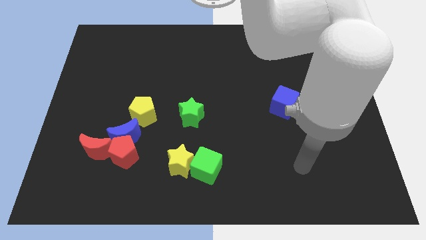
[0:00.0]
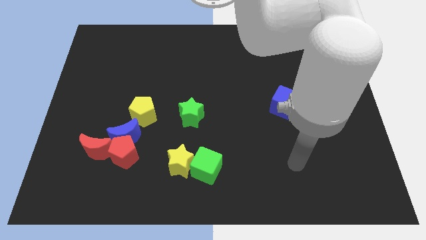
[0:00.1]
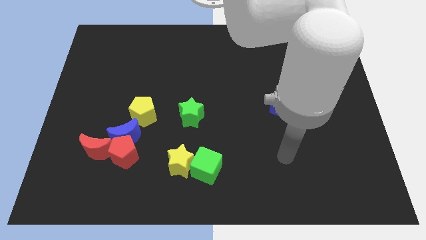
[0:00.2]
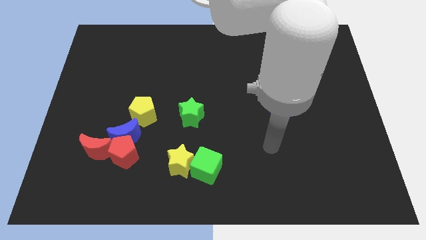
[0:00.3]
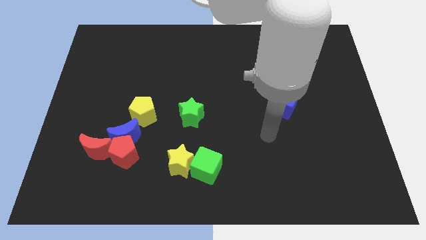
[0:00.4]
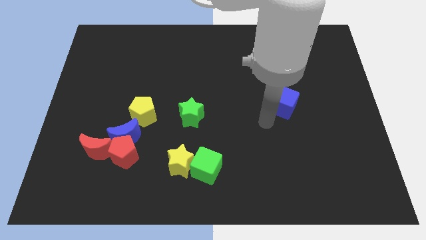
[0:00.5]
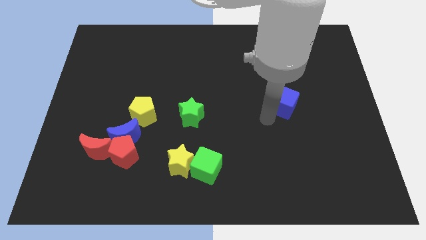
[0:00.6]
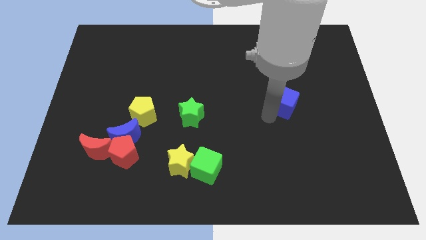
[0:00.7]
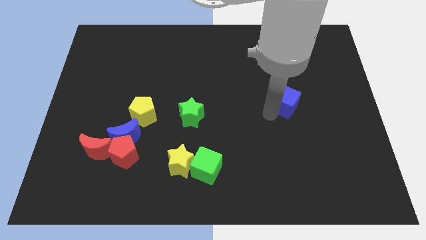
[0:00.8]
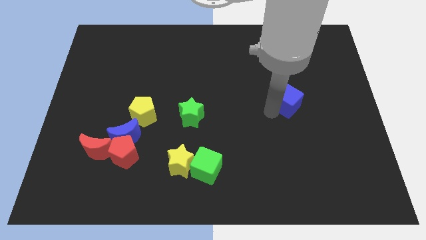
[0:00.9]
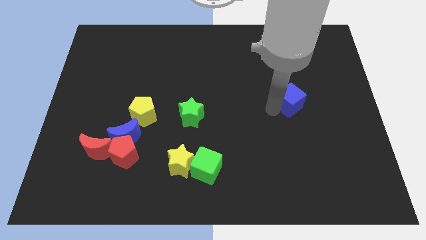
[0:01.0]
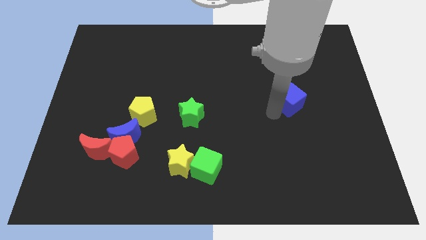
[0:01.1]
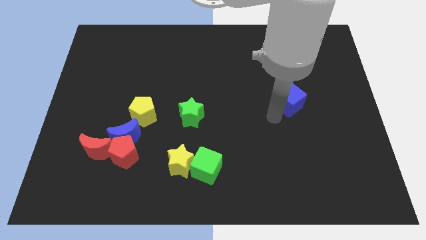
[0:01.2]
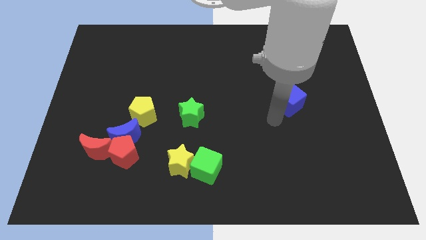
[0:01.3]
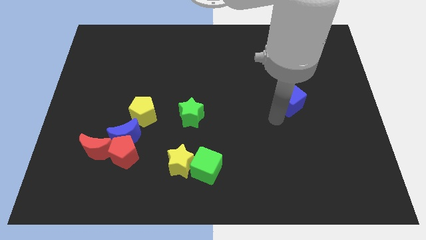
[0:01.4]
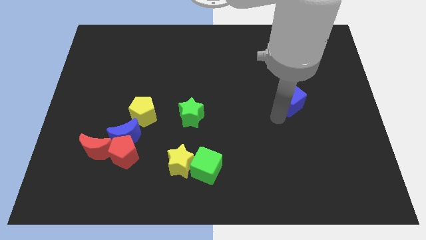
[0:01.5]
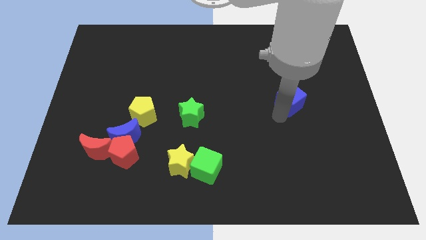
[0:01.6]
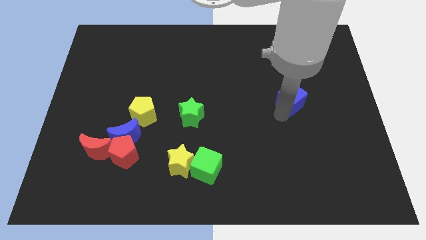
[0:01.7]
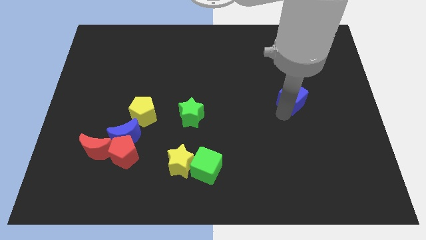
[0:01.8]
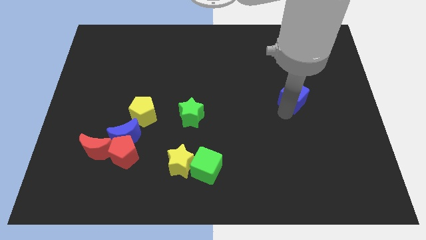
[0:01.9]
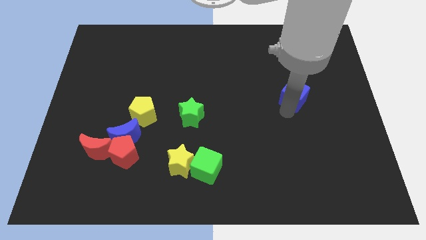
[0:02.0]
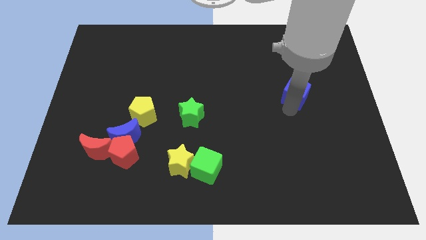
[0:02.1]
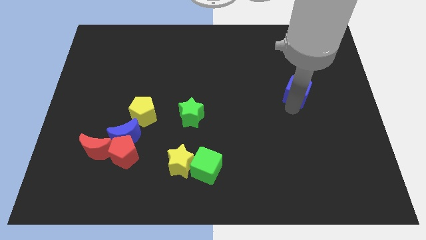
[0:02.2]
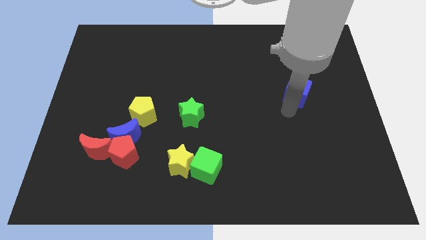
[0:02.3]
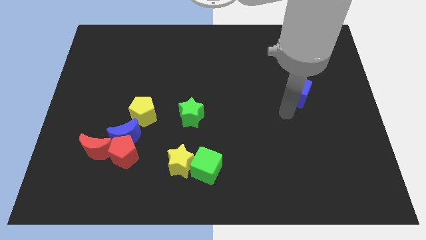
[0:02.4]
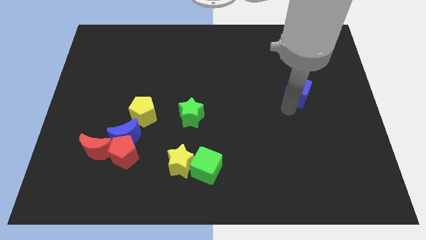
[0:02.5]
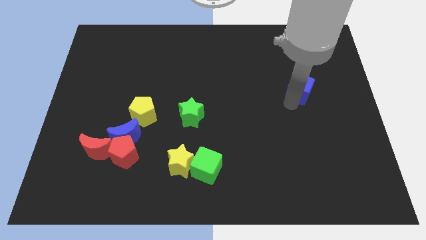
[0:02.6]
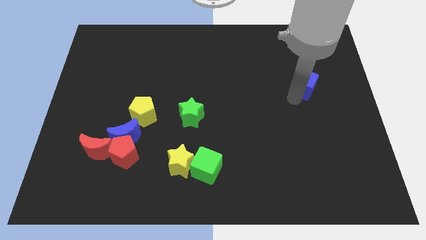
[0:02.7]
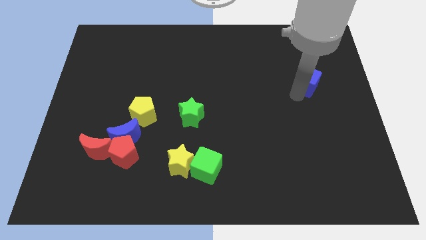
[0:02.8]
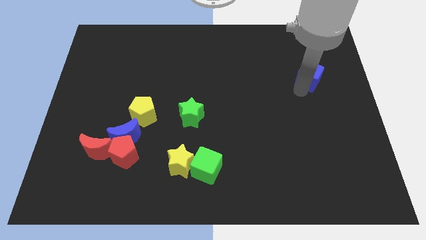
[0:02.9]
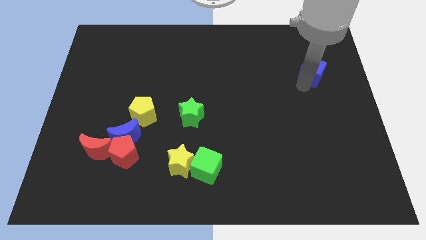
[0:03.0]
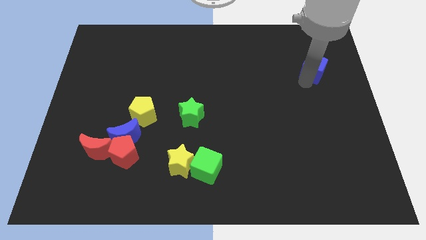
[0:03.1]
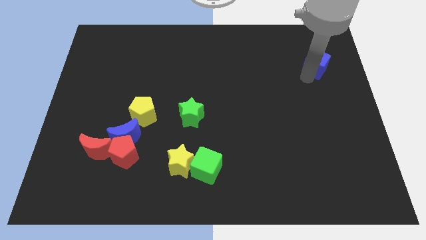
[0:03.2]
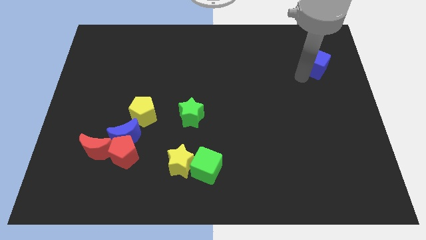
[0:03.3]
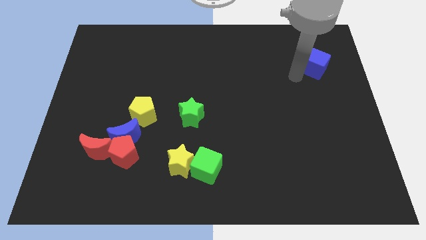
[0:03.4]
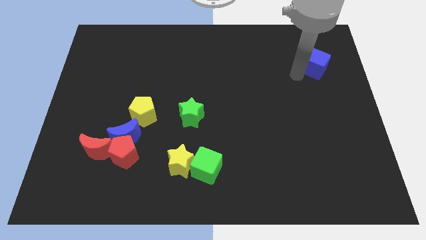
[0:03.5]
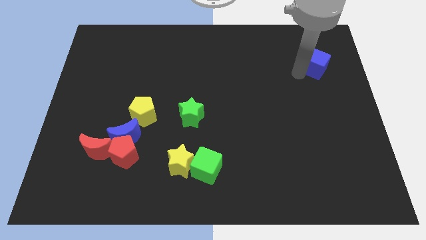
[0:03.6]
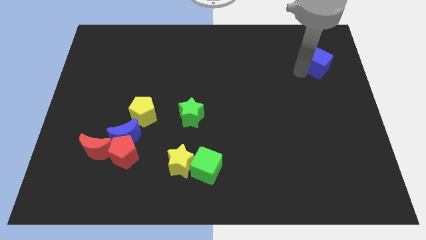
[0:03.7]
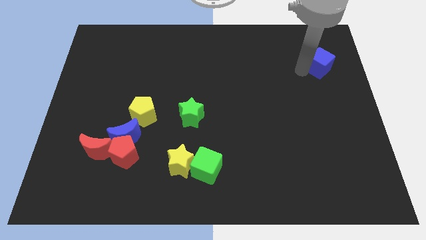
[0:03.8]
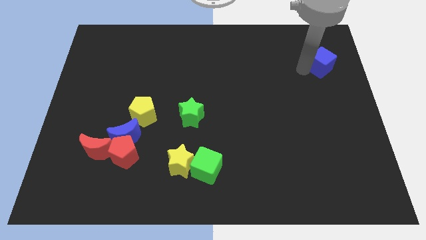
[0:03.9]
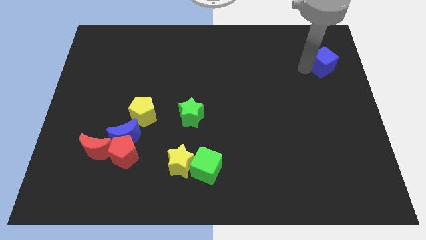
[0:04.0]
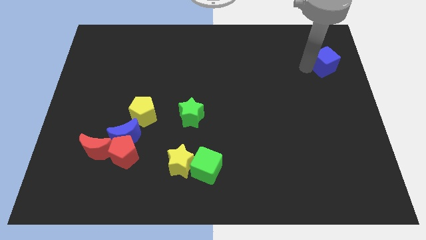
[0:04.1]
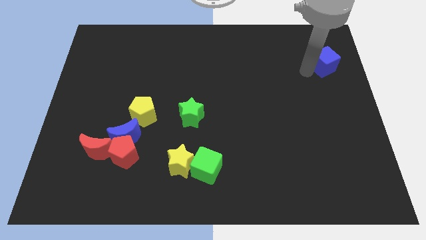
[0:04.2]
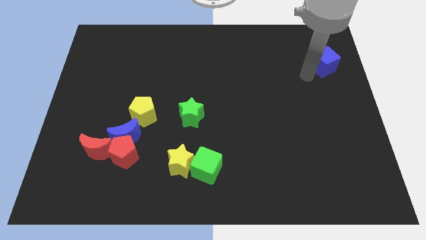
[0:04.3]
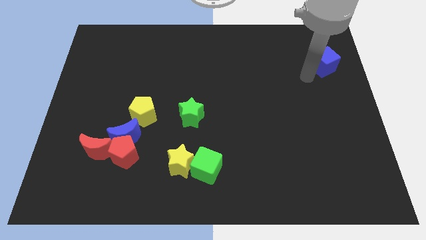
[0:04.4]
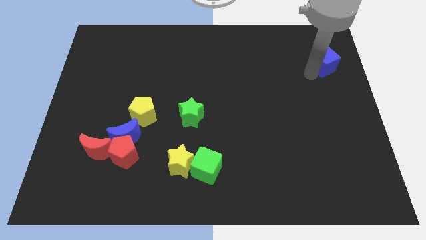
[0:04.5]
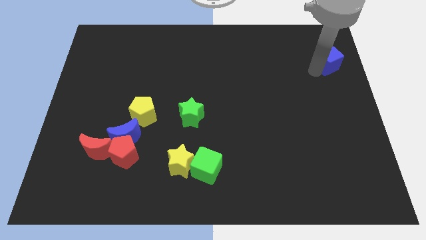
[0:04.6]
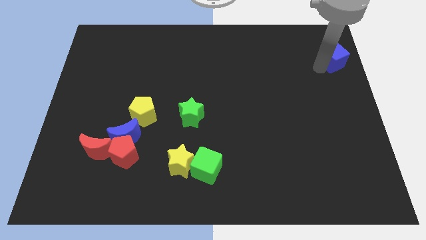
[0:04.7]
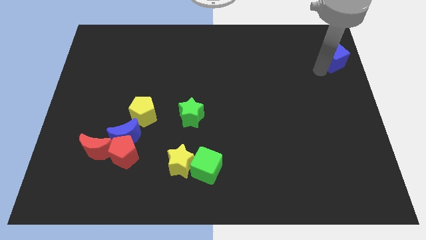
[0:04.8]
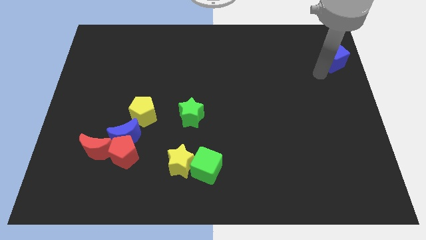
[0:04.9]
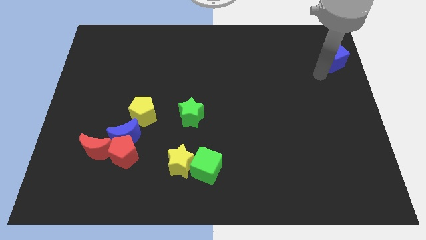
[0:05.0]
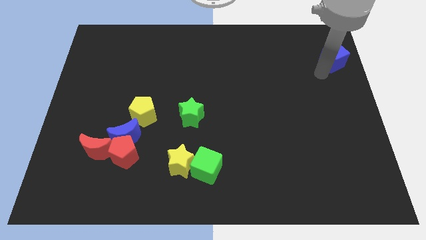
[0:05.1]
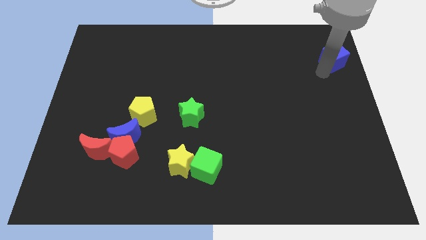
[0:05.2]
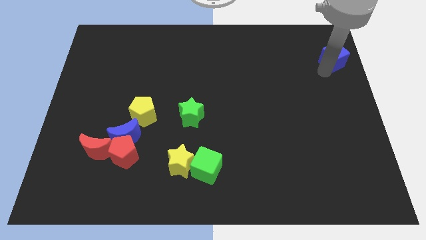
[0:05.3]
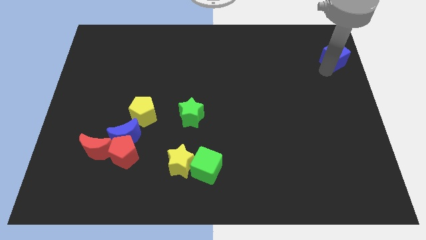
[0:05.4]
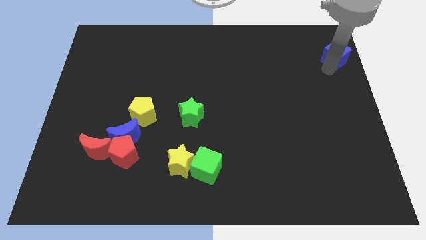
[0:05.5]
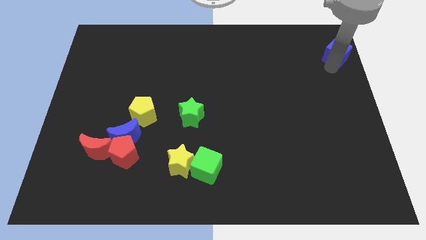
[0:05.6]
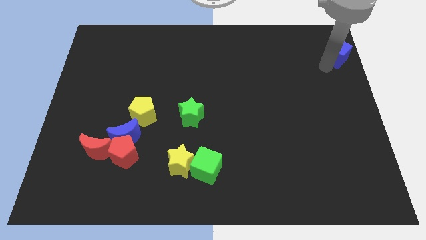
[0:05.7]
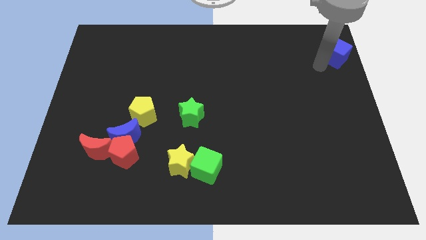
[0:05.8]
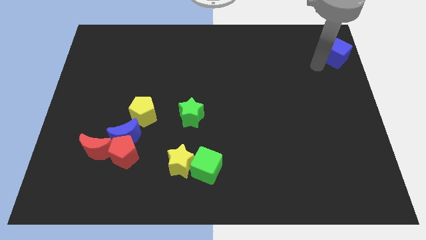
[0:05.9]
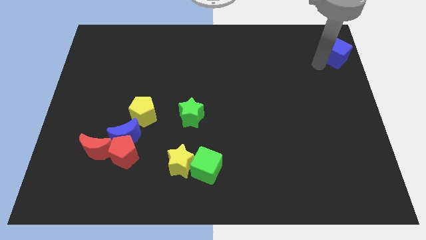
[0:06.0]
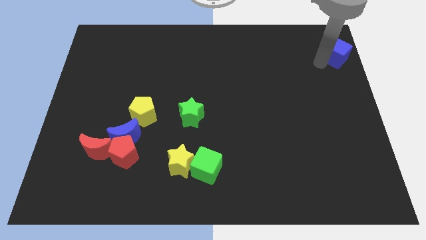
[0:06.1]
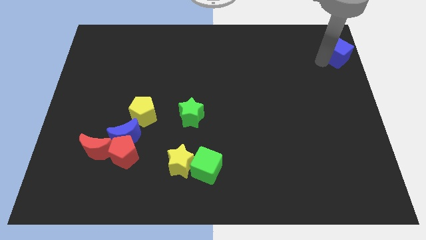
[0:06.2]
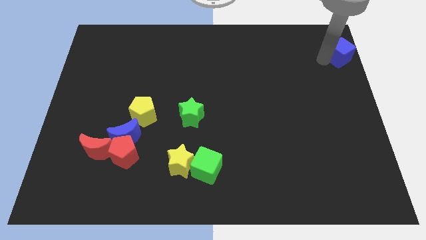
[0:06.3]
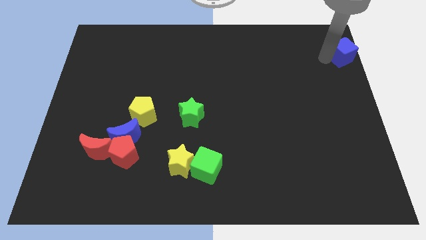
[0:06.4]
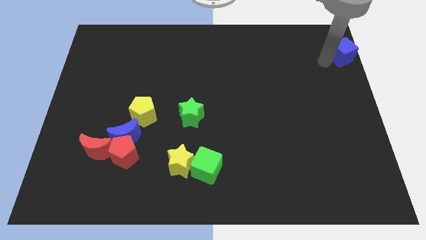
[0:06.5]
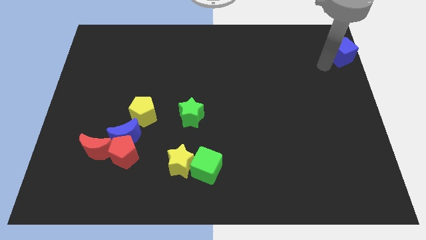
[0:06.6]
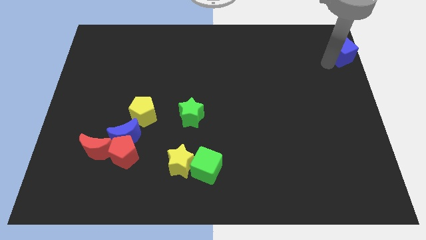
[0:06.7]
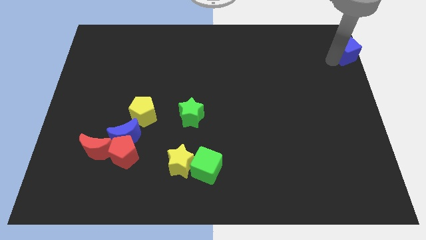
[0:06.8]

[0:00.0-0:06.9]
put the blue cube to the top right of the board

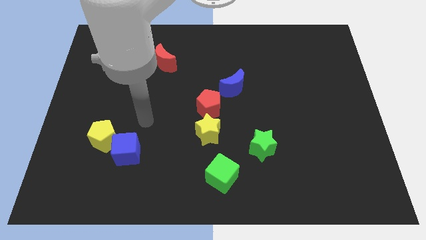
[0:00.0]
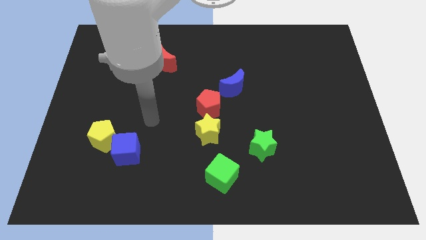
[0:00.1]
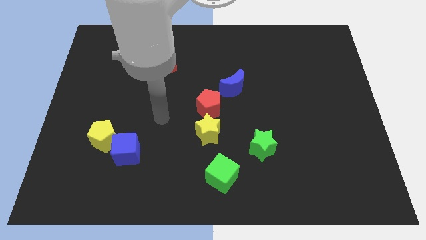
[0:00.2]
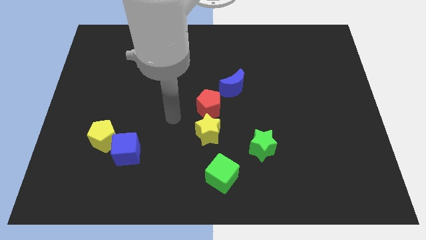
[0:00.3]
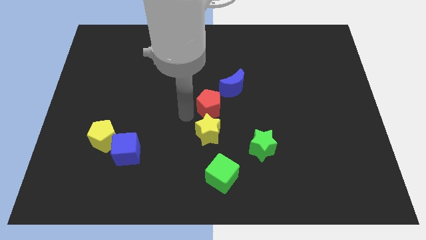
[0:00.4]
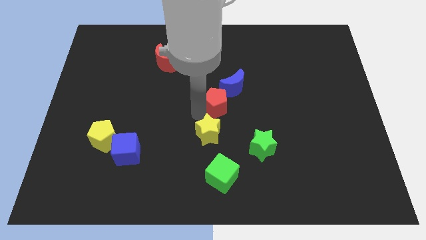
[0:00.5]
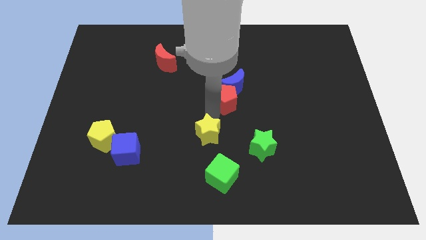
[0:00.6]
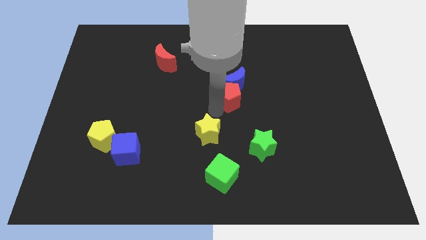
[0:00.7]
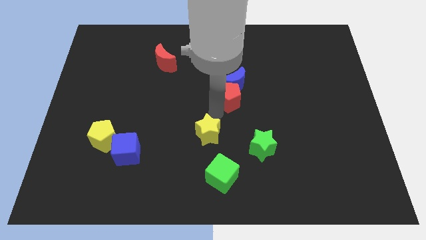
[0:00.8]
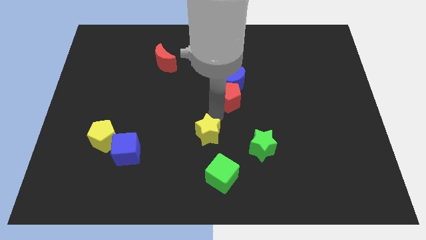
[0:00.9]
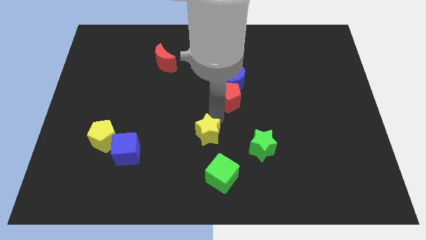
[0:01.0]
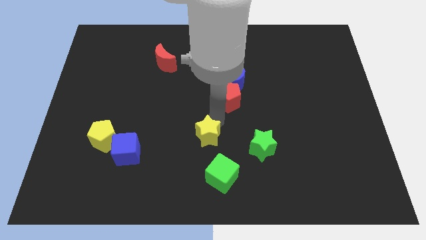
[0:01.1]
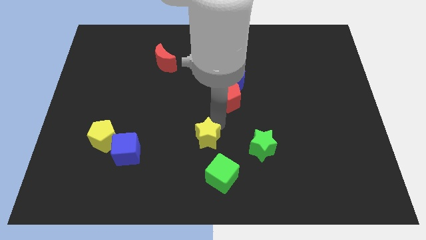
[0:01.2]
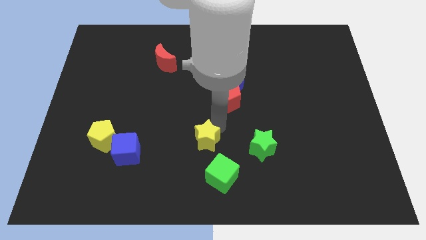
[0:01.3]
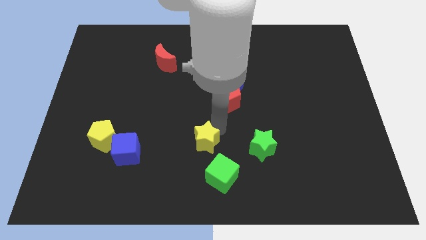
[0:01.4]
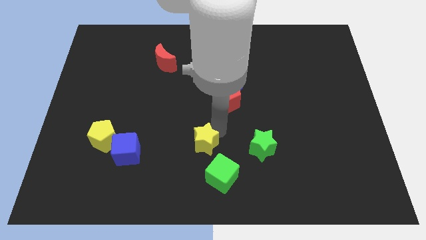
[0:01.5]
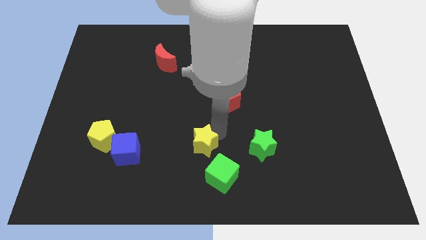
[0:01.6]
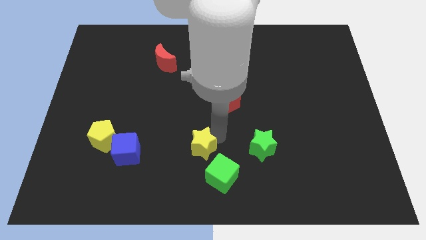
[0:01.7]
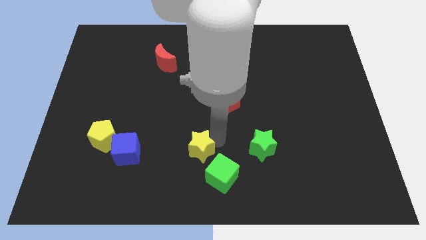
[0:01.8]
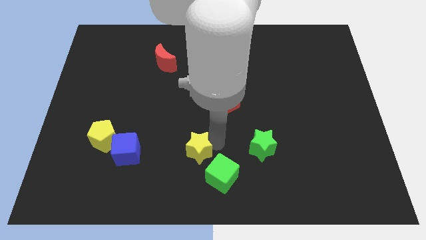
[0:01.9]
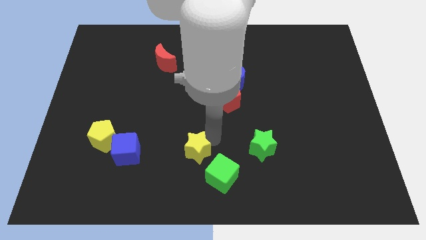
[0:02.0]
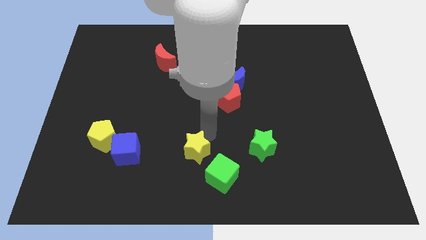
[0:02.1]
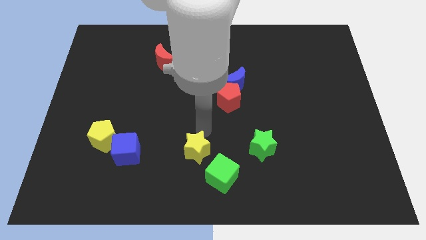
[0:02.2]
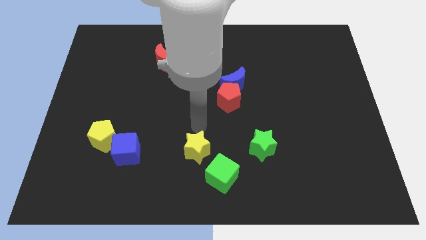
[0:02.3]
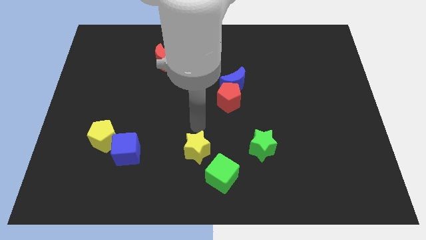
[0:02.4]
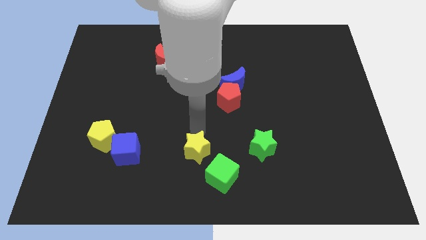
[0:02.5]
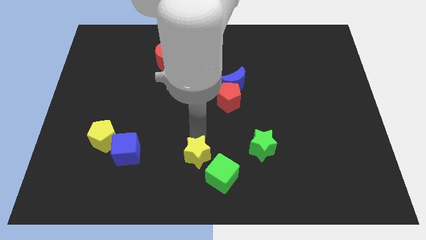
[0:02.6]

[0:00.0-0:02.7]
push the yellow star to the bottom
